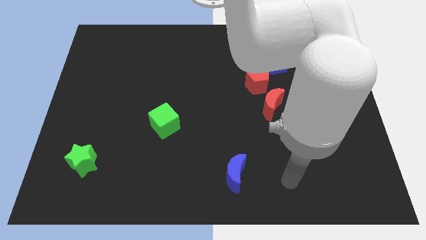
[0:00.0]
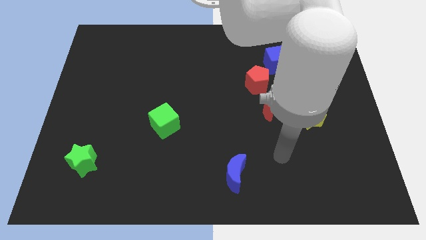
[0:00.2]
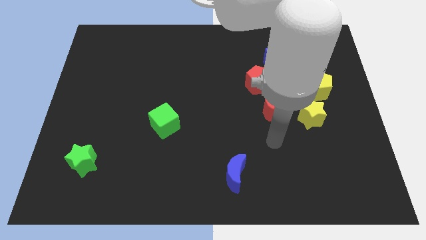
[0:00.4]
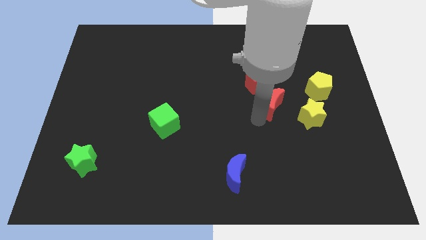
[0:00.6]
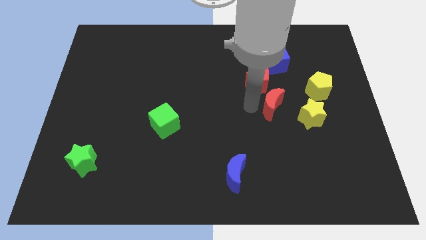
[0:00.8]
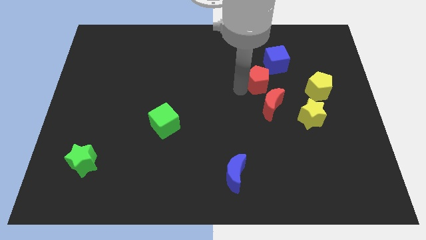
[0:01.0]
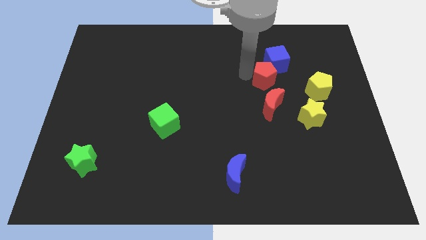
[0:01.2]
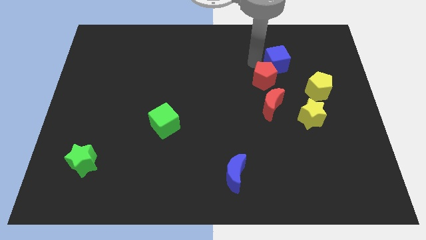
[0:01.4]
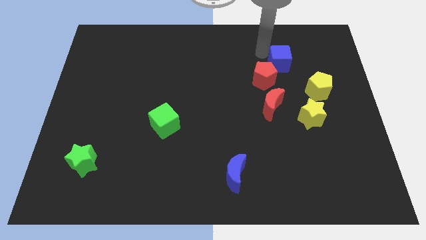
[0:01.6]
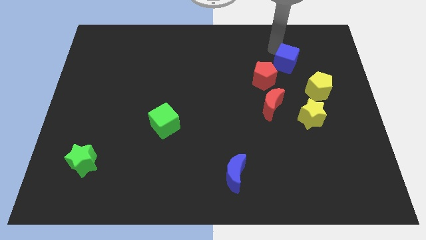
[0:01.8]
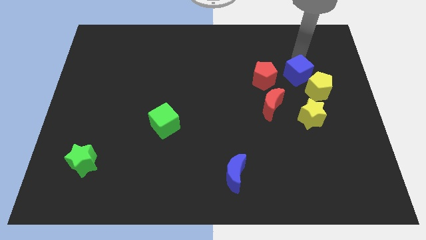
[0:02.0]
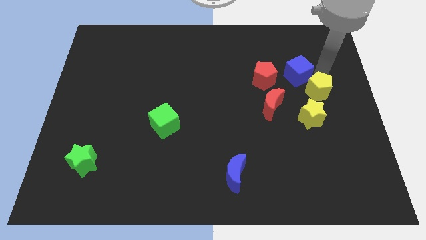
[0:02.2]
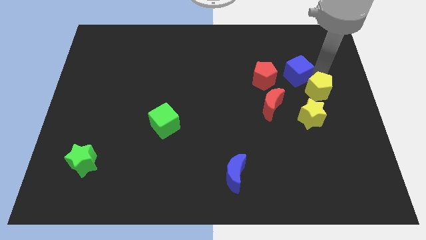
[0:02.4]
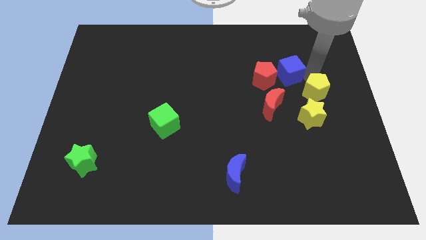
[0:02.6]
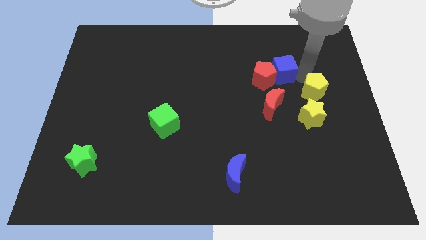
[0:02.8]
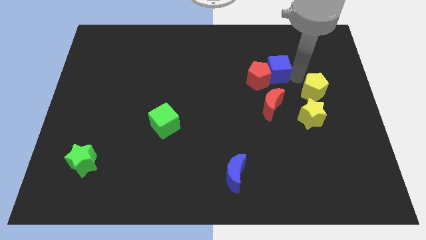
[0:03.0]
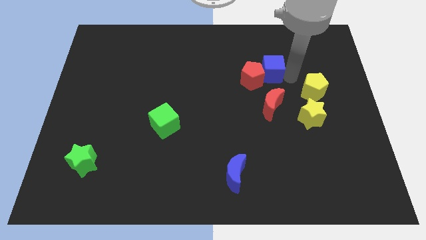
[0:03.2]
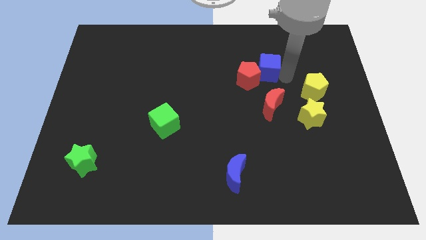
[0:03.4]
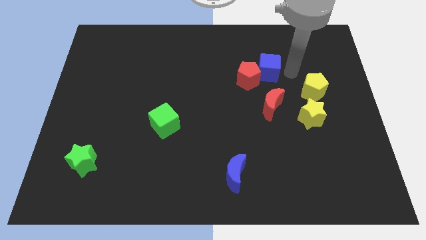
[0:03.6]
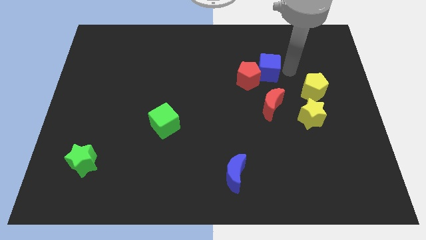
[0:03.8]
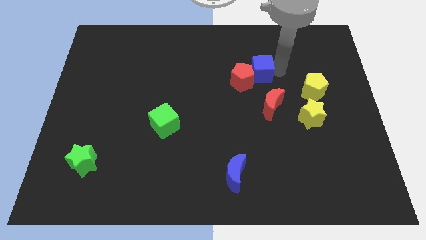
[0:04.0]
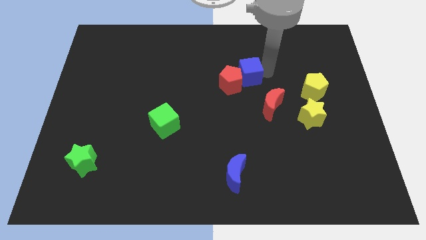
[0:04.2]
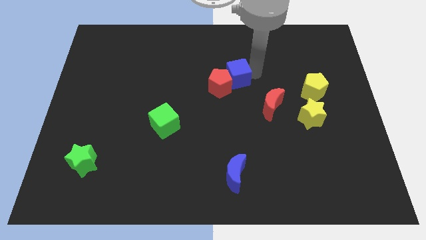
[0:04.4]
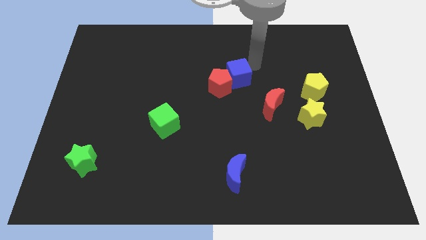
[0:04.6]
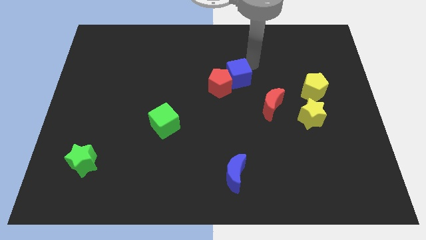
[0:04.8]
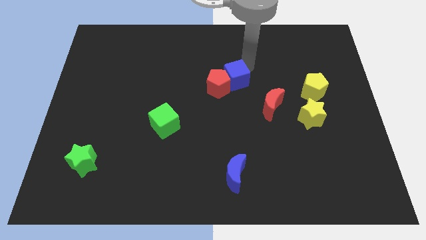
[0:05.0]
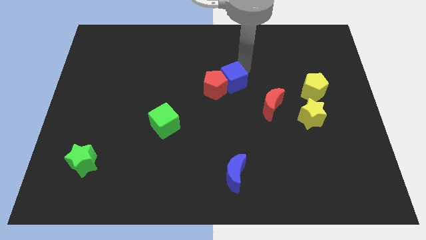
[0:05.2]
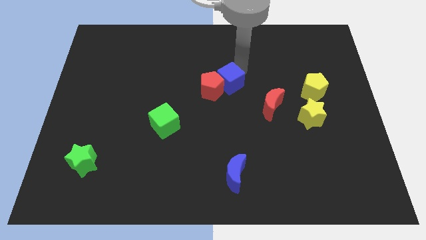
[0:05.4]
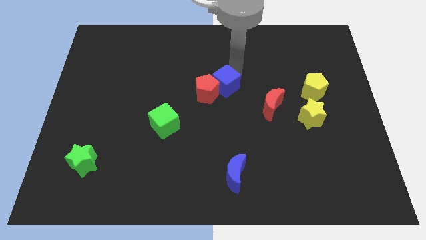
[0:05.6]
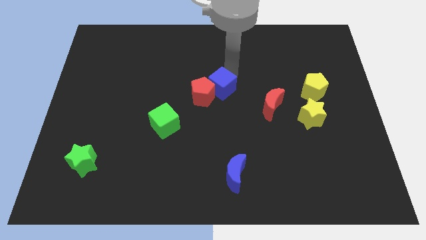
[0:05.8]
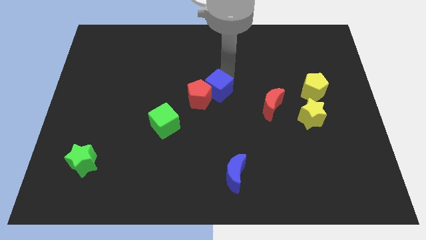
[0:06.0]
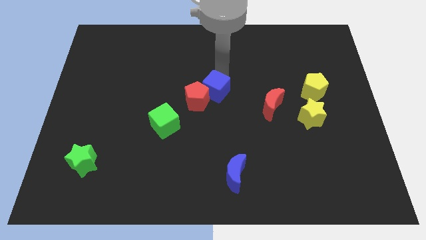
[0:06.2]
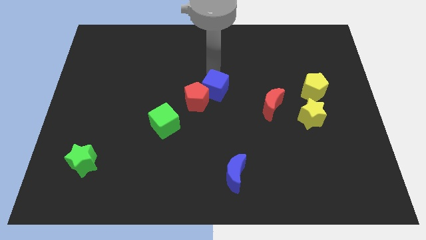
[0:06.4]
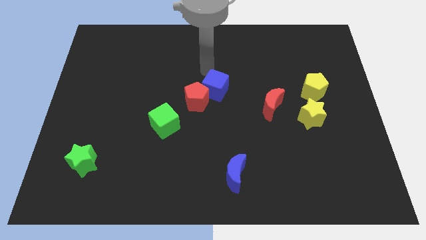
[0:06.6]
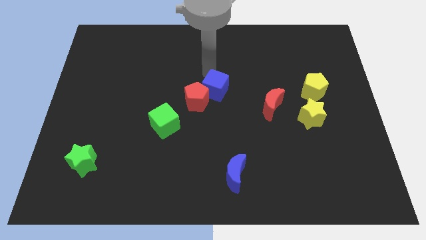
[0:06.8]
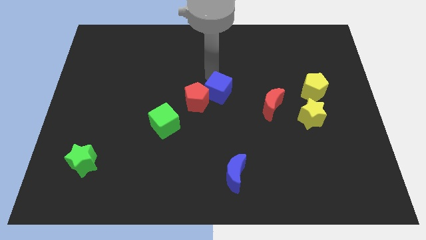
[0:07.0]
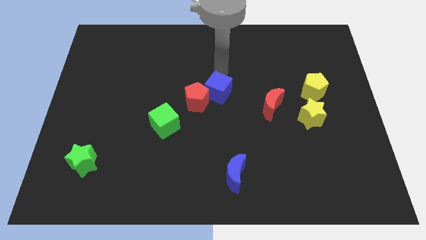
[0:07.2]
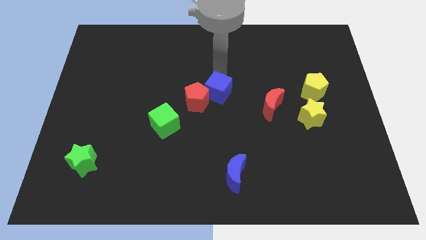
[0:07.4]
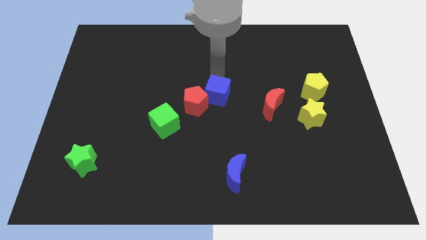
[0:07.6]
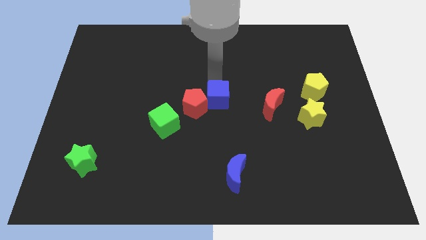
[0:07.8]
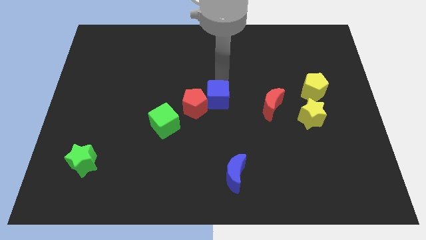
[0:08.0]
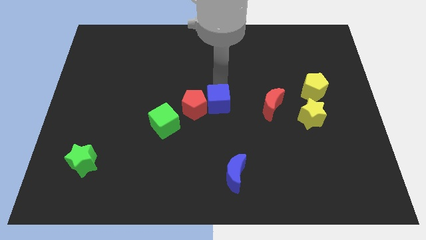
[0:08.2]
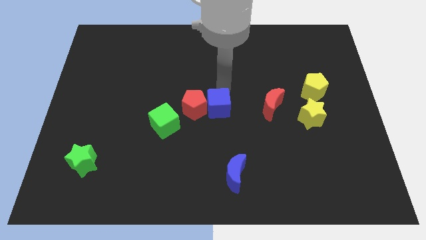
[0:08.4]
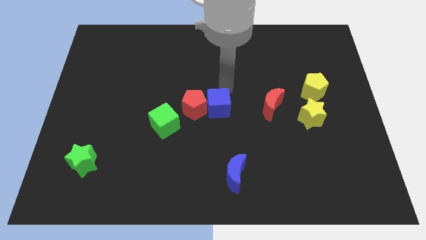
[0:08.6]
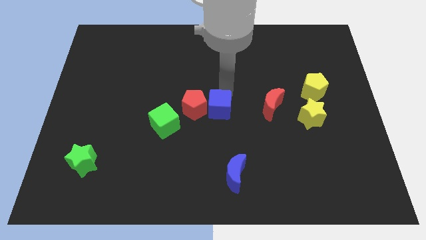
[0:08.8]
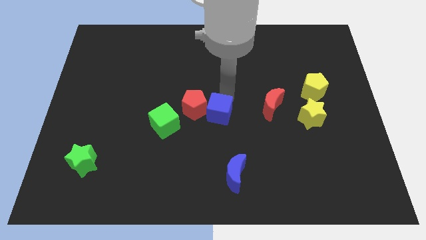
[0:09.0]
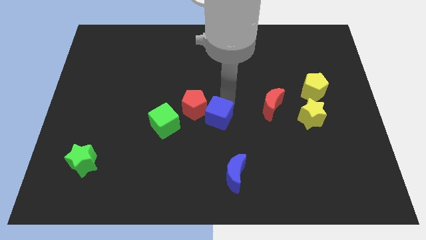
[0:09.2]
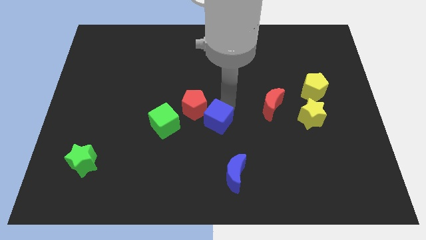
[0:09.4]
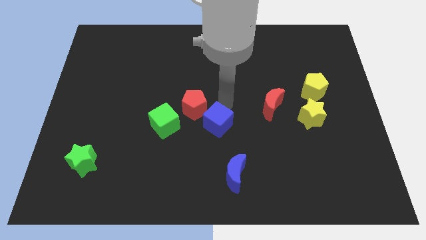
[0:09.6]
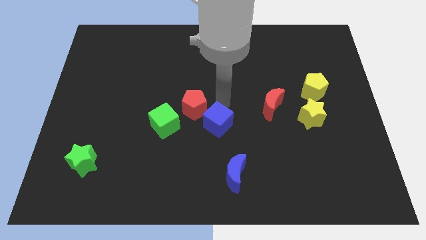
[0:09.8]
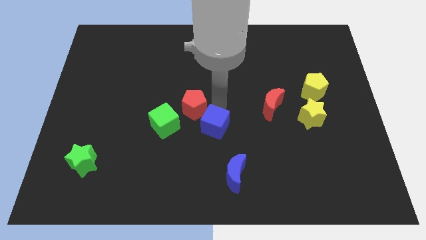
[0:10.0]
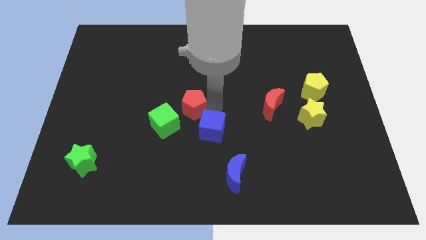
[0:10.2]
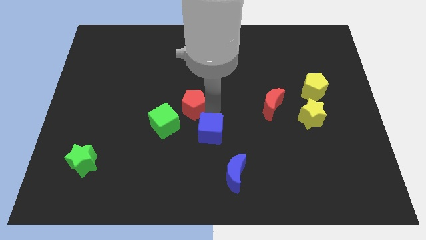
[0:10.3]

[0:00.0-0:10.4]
put the blue cube diagonally up and to the left of the blue moon
